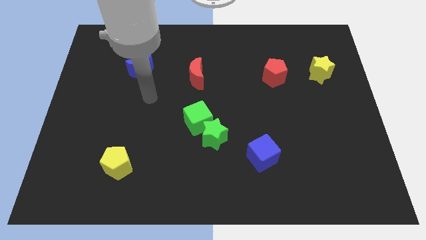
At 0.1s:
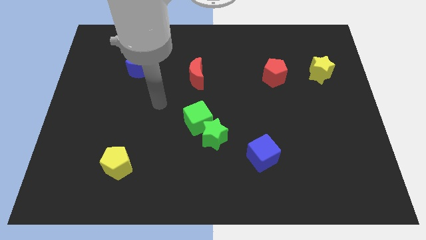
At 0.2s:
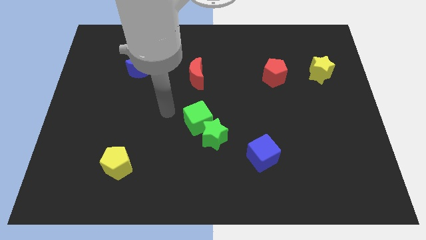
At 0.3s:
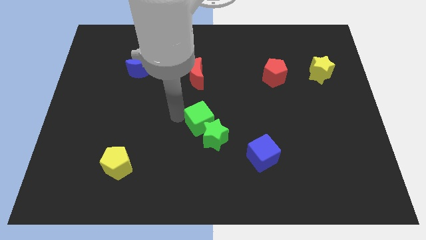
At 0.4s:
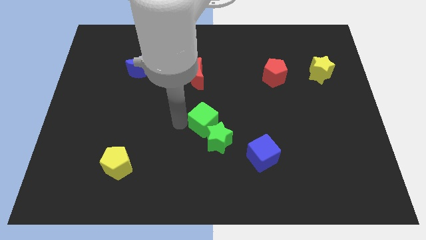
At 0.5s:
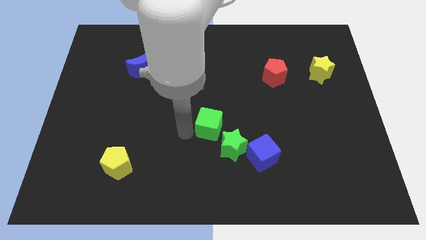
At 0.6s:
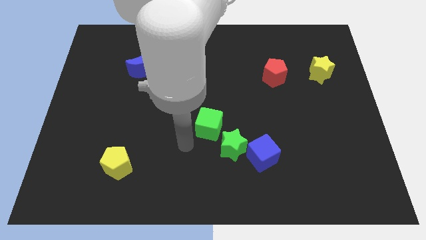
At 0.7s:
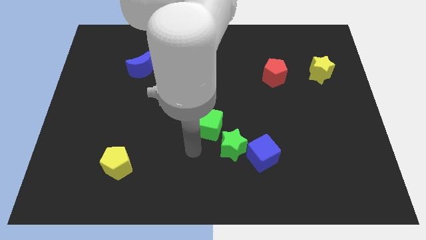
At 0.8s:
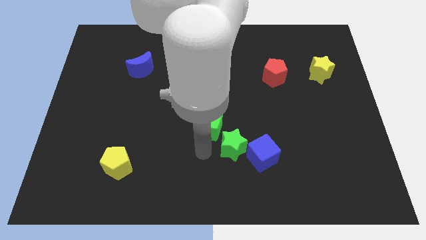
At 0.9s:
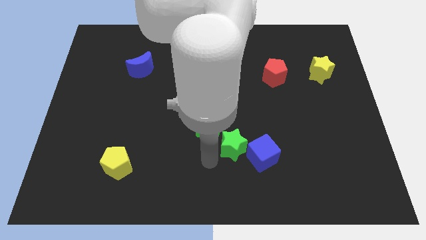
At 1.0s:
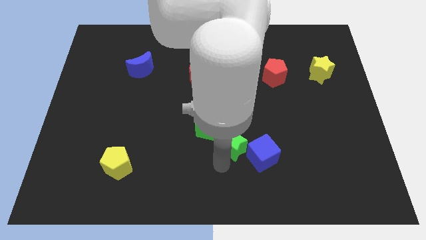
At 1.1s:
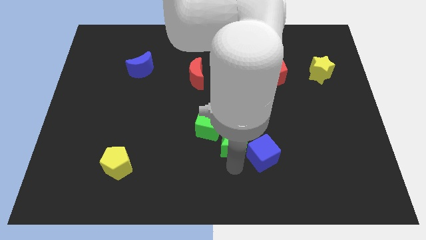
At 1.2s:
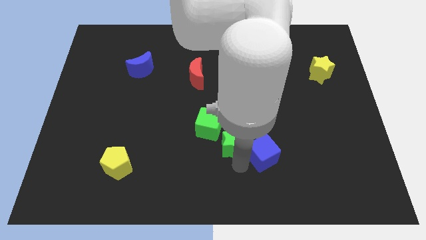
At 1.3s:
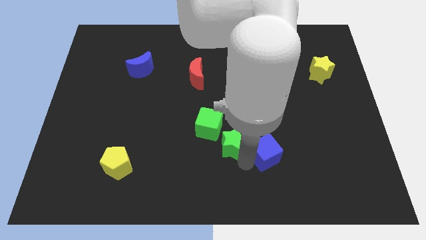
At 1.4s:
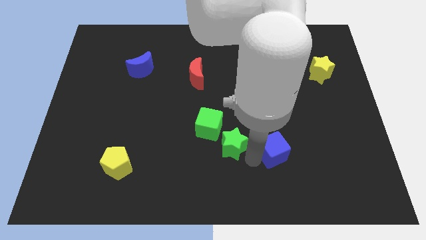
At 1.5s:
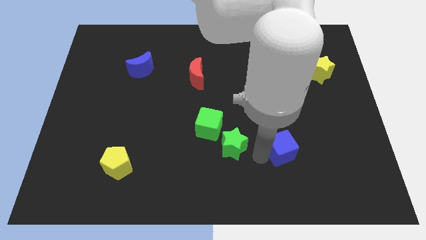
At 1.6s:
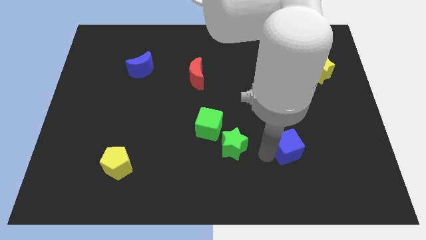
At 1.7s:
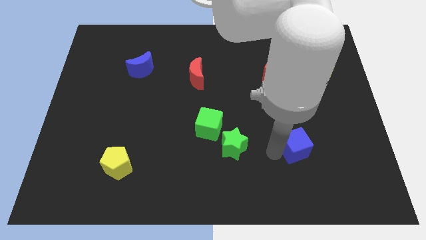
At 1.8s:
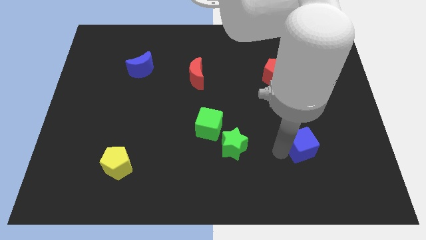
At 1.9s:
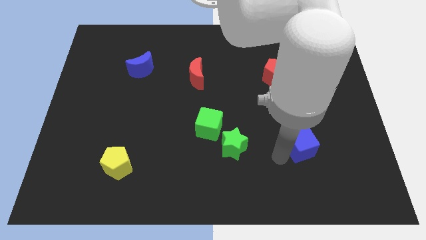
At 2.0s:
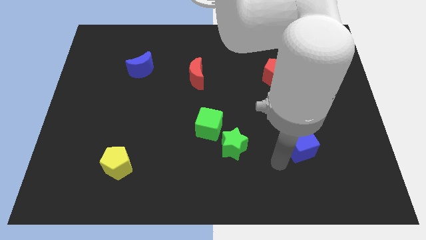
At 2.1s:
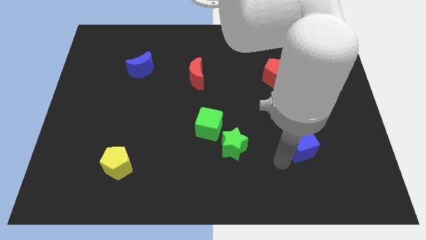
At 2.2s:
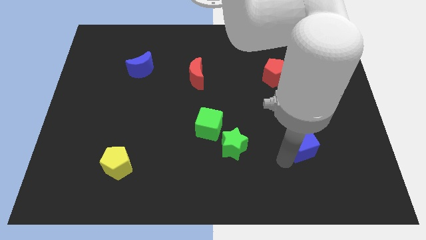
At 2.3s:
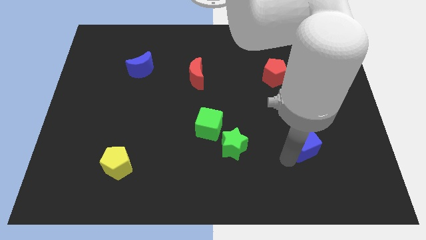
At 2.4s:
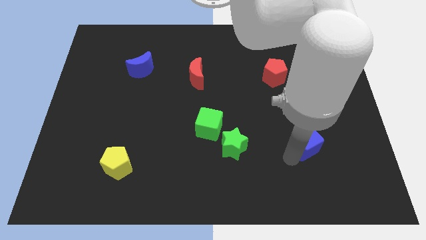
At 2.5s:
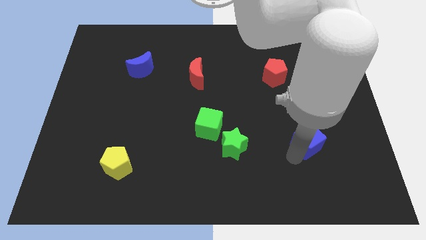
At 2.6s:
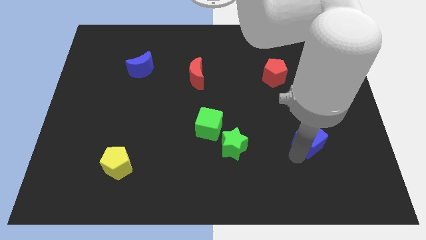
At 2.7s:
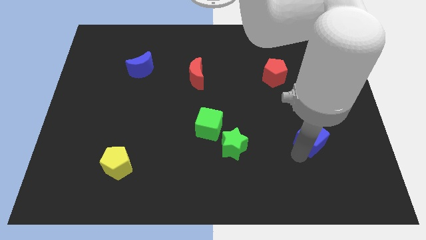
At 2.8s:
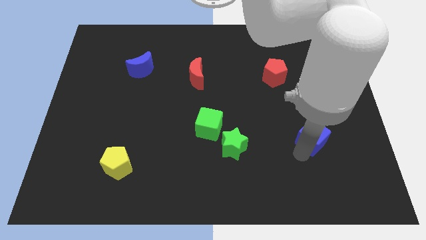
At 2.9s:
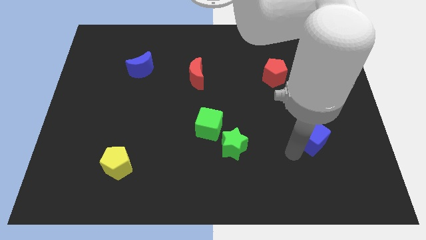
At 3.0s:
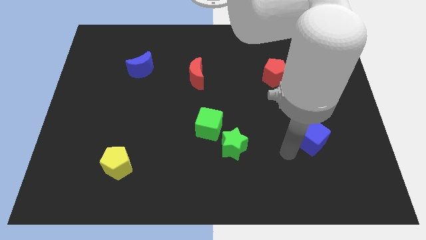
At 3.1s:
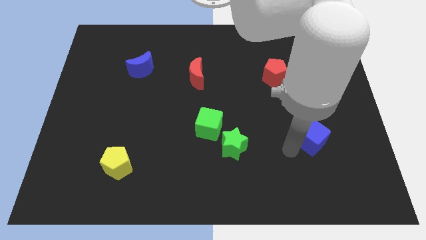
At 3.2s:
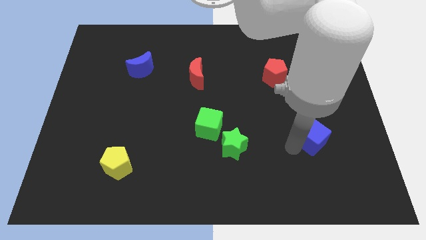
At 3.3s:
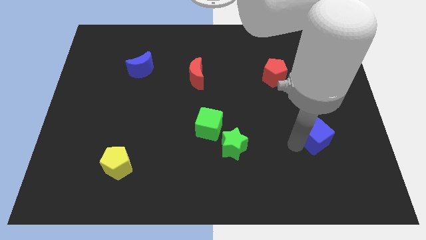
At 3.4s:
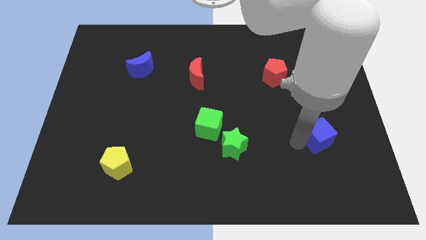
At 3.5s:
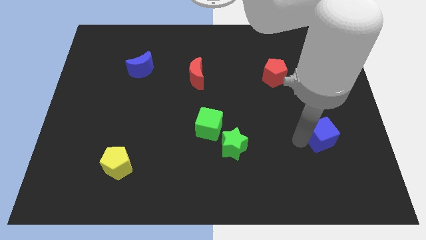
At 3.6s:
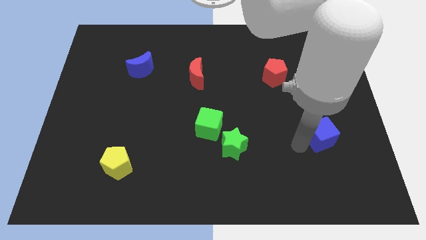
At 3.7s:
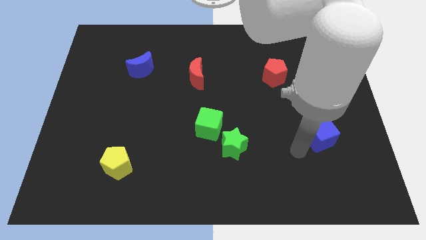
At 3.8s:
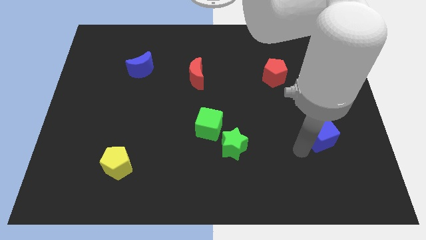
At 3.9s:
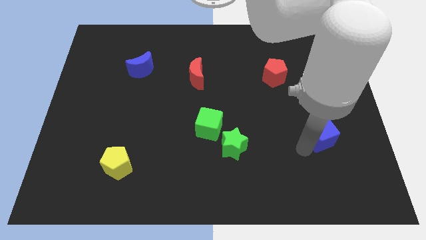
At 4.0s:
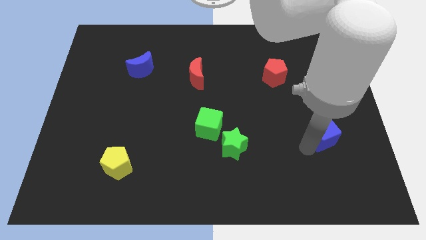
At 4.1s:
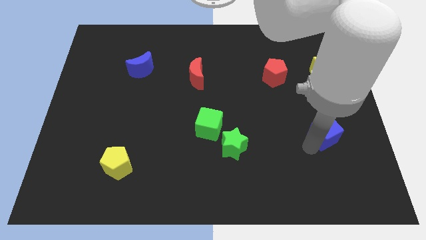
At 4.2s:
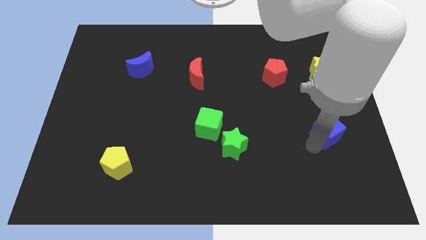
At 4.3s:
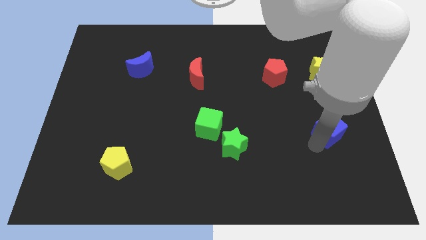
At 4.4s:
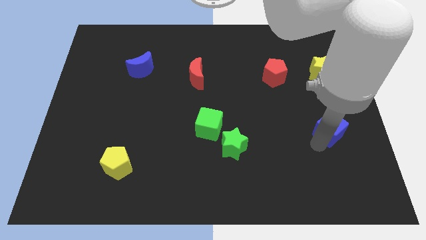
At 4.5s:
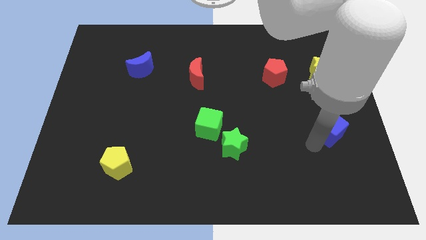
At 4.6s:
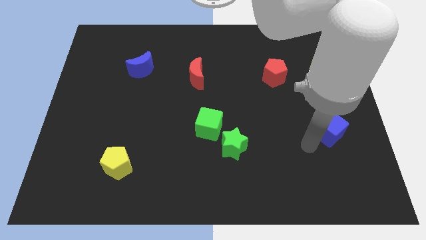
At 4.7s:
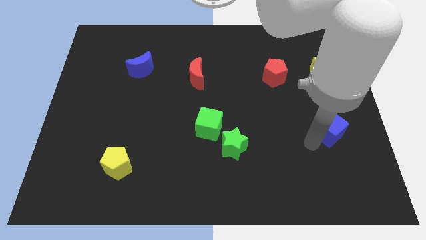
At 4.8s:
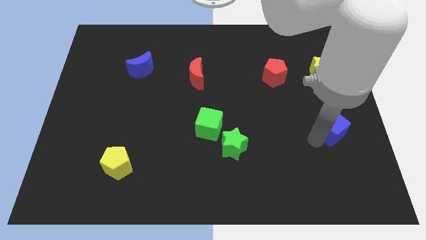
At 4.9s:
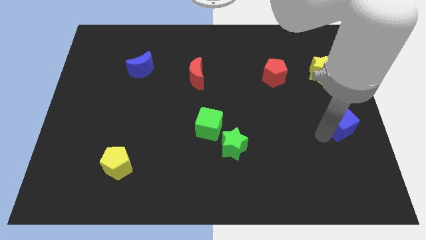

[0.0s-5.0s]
put the blue cube to the right side of the board

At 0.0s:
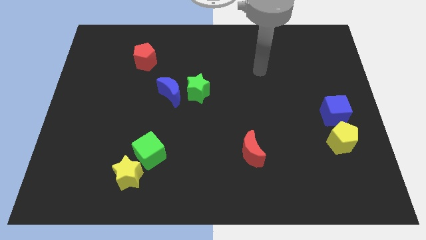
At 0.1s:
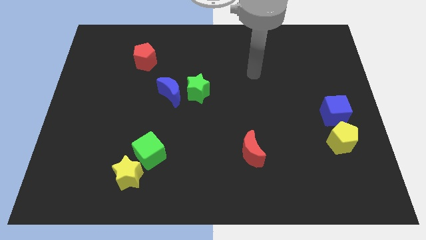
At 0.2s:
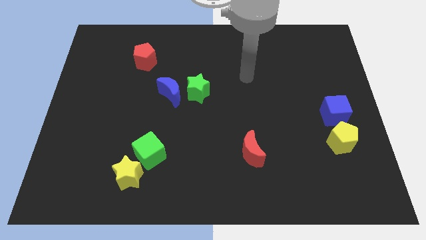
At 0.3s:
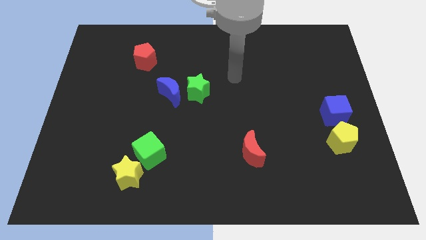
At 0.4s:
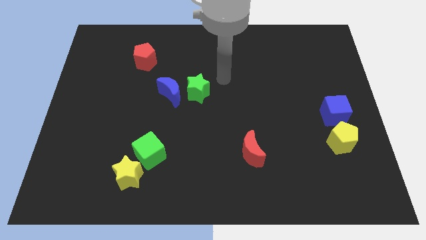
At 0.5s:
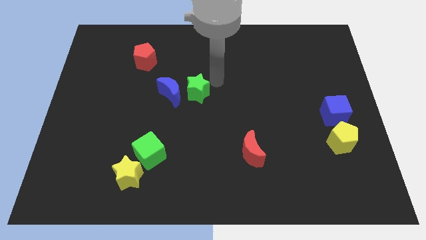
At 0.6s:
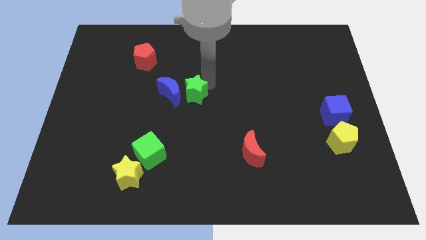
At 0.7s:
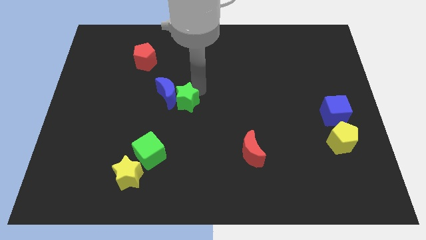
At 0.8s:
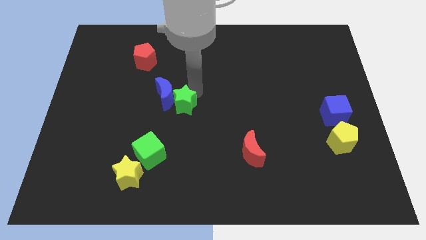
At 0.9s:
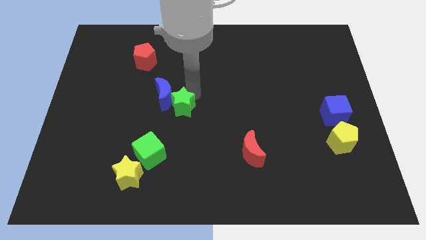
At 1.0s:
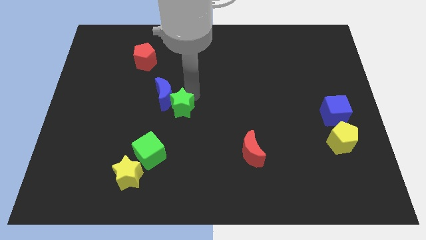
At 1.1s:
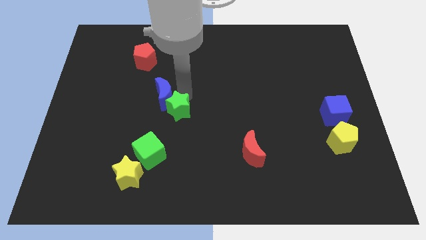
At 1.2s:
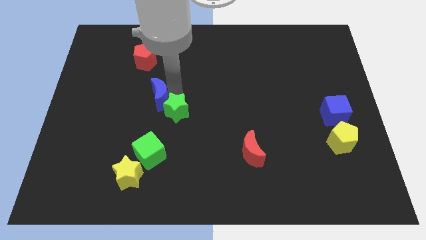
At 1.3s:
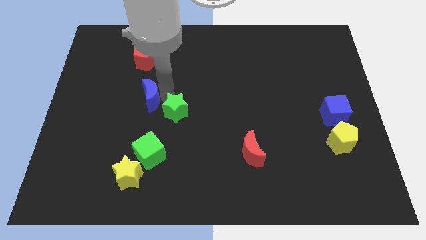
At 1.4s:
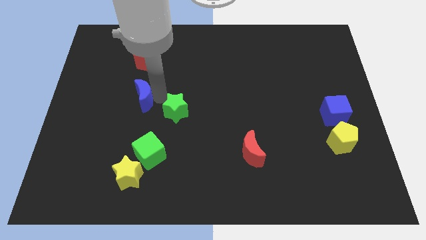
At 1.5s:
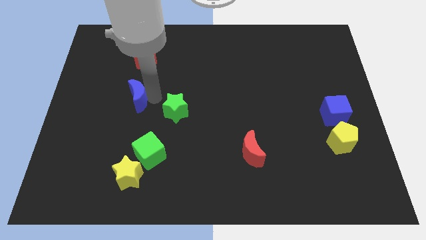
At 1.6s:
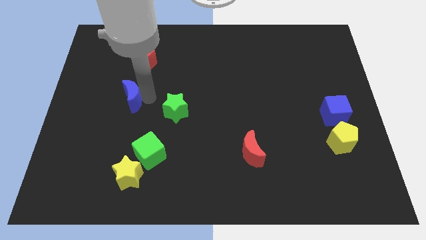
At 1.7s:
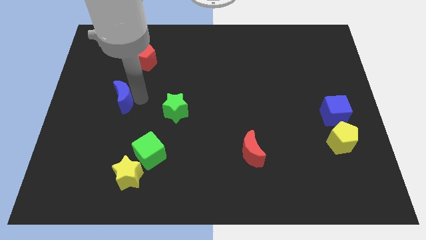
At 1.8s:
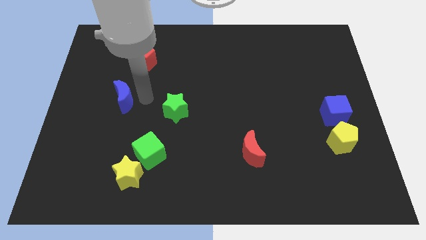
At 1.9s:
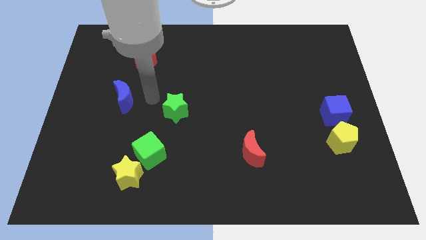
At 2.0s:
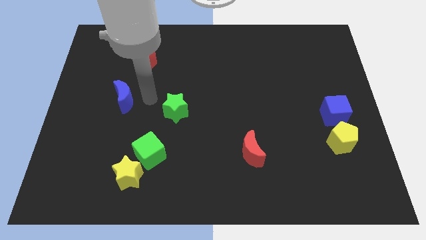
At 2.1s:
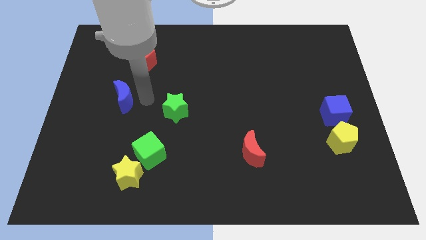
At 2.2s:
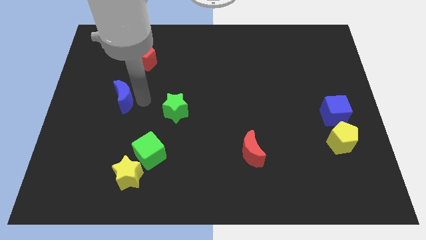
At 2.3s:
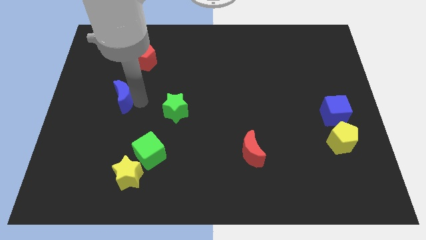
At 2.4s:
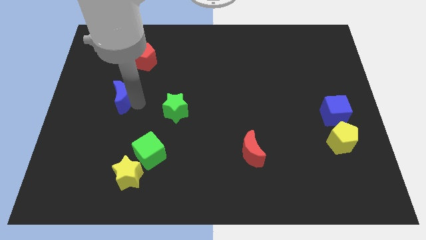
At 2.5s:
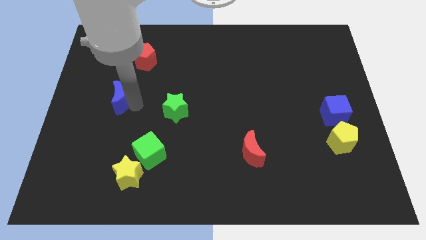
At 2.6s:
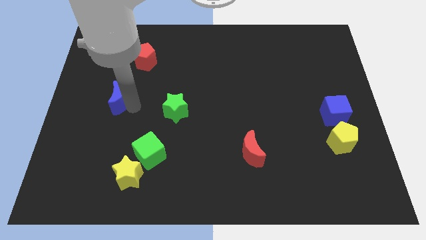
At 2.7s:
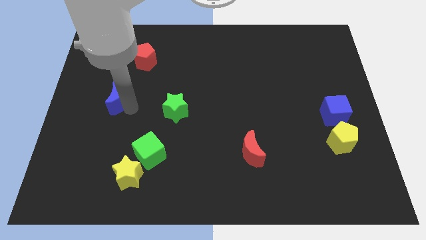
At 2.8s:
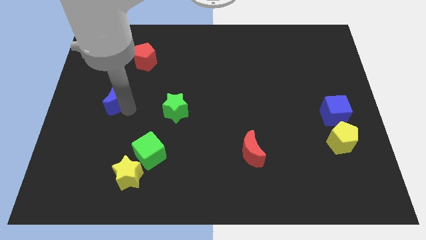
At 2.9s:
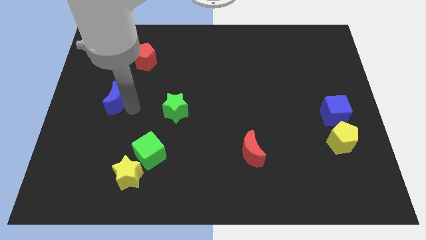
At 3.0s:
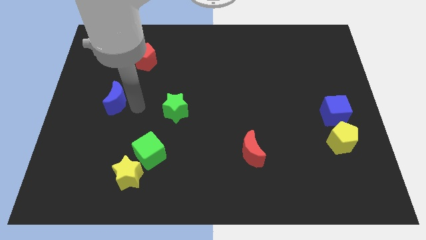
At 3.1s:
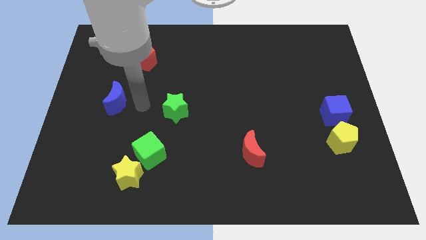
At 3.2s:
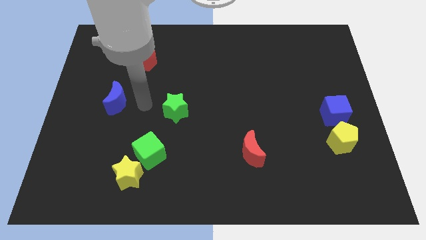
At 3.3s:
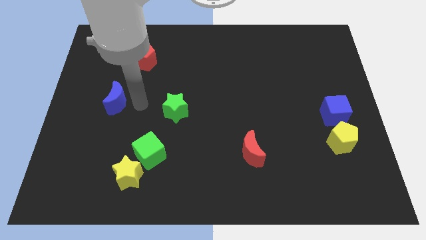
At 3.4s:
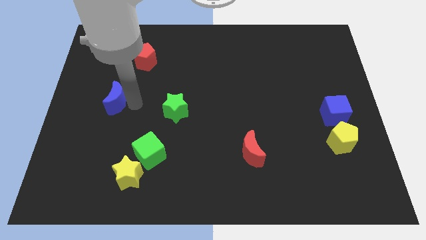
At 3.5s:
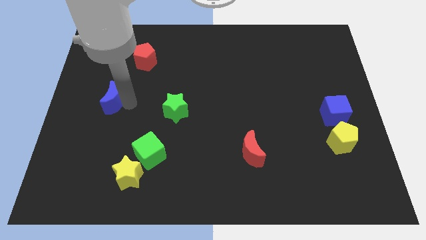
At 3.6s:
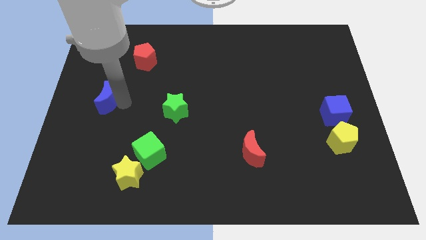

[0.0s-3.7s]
move the blue moon to the left side
